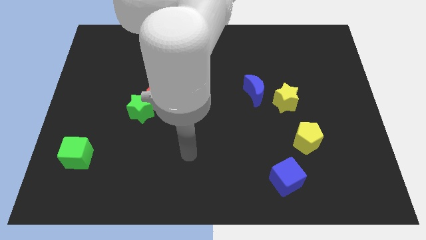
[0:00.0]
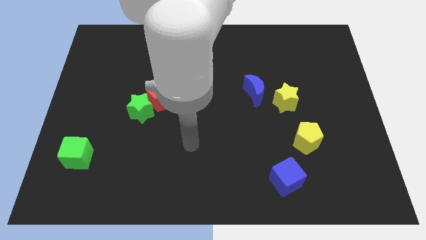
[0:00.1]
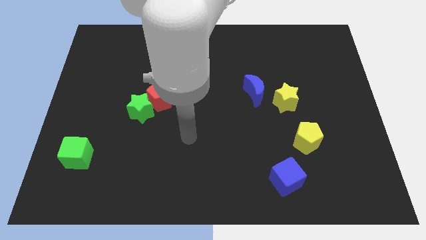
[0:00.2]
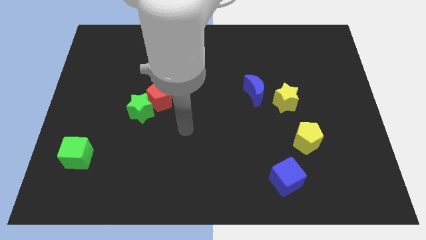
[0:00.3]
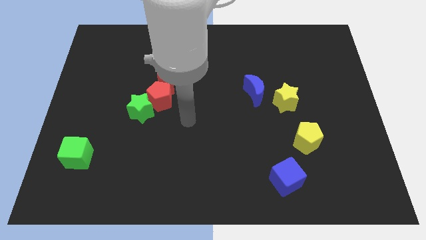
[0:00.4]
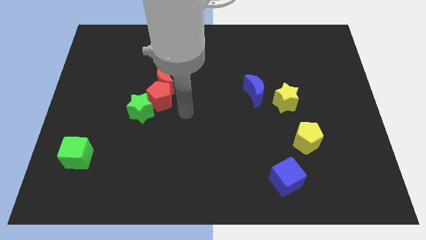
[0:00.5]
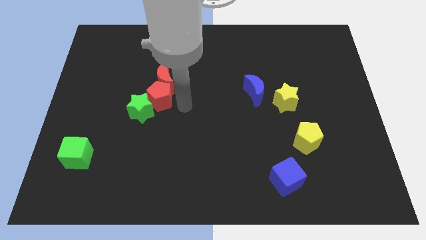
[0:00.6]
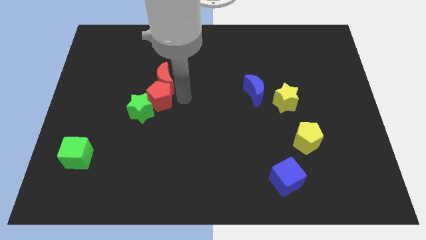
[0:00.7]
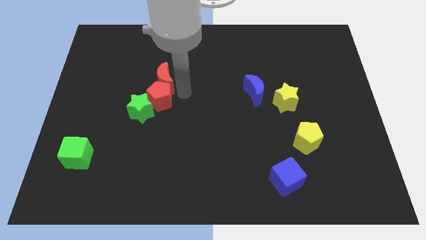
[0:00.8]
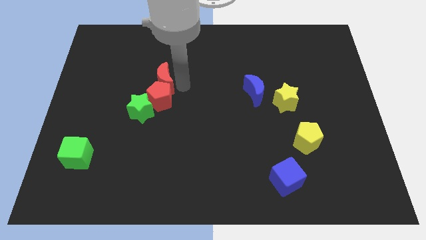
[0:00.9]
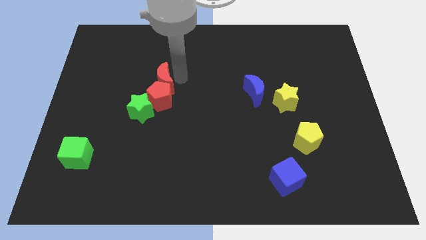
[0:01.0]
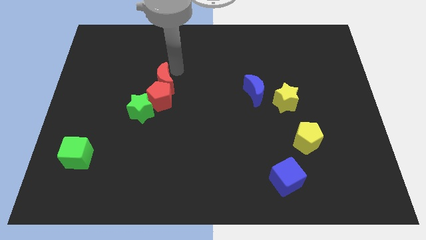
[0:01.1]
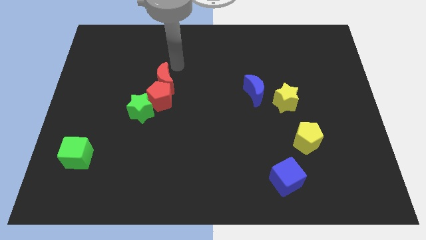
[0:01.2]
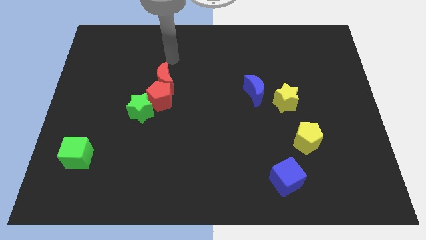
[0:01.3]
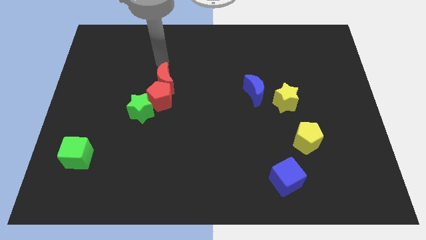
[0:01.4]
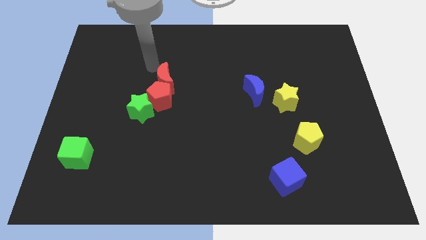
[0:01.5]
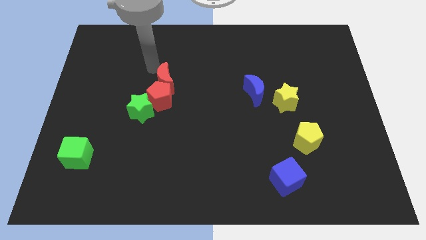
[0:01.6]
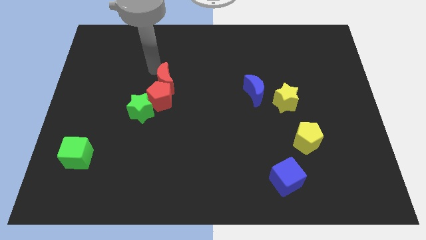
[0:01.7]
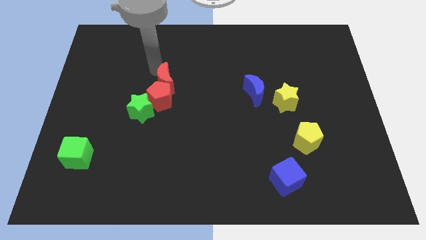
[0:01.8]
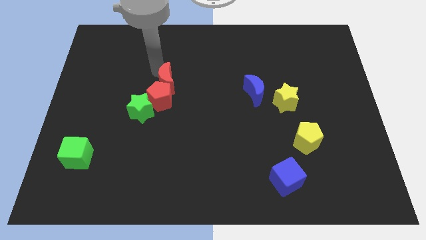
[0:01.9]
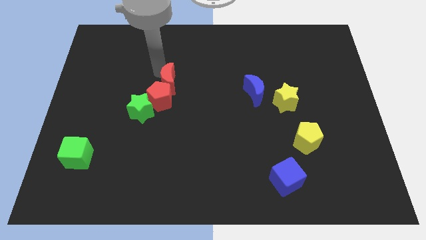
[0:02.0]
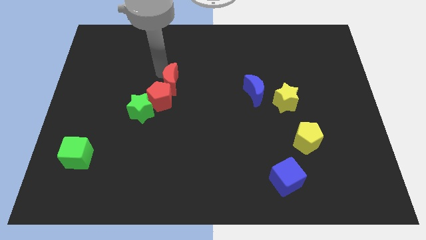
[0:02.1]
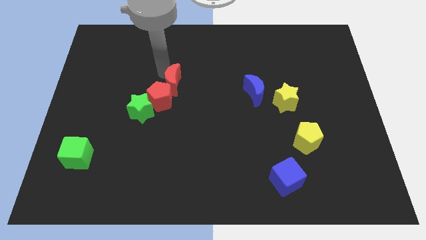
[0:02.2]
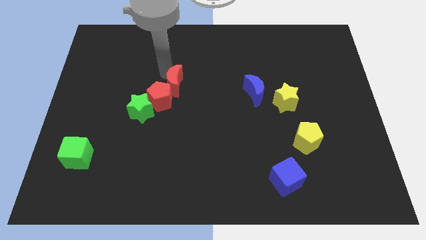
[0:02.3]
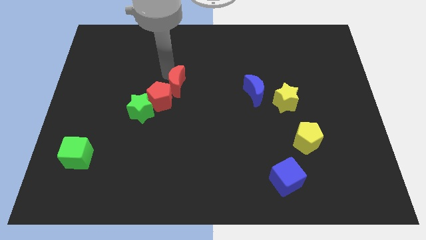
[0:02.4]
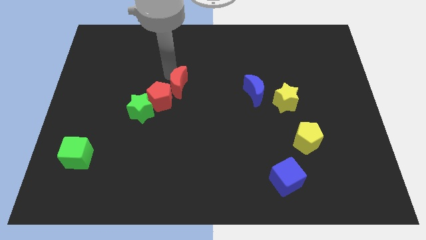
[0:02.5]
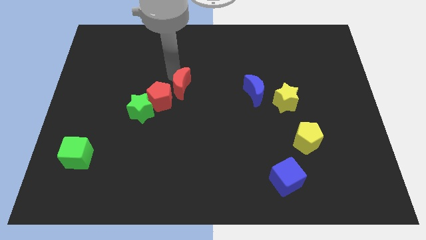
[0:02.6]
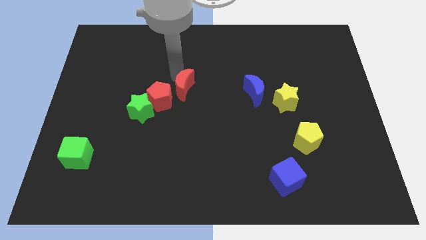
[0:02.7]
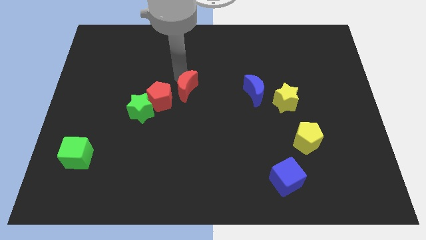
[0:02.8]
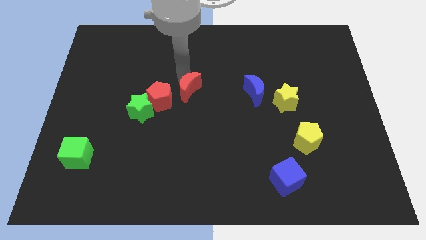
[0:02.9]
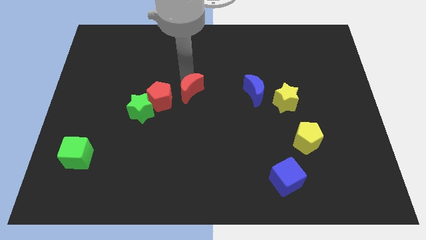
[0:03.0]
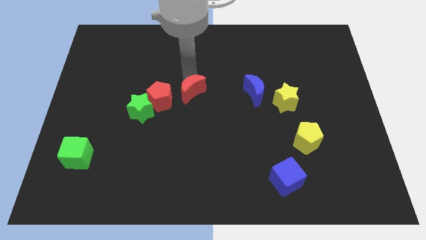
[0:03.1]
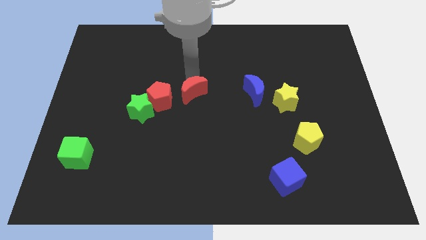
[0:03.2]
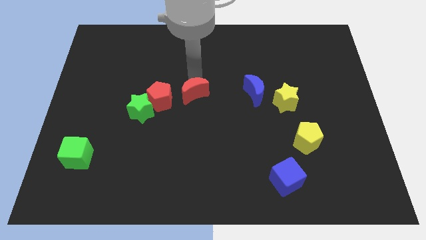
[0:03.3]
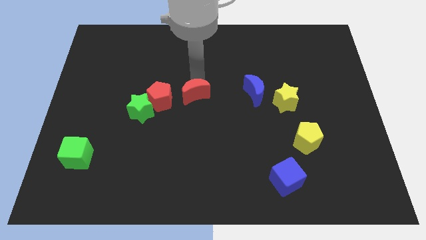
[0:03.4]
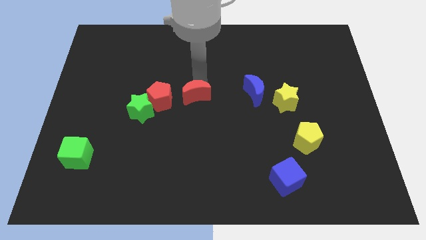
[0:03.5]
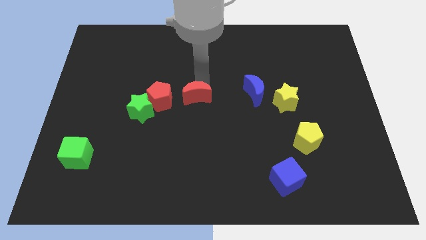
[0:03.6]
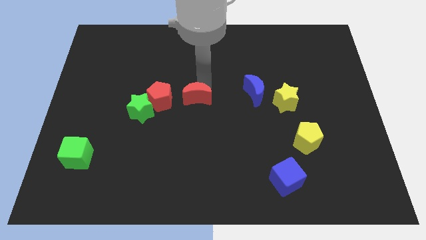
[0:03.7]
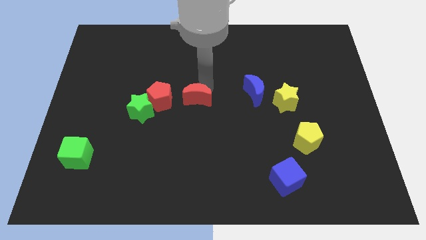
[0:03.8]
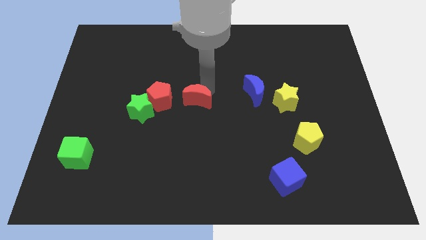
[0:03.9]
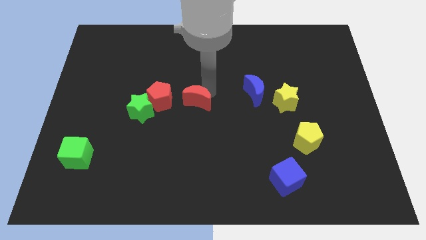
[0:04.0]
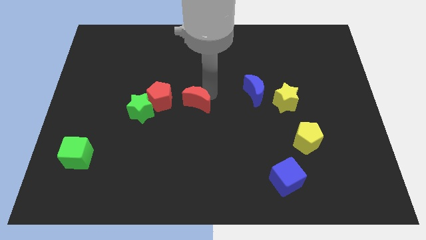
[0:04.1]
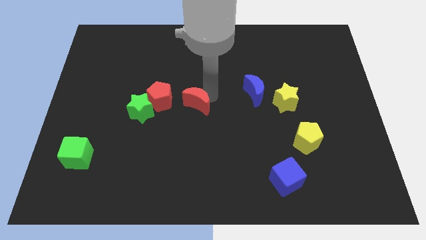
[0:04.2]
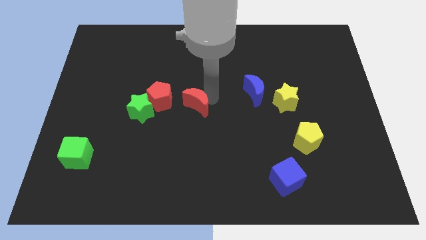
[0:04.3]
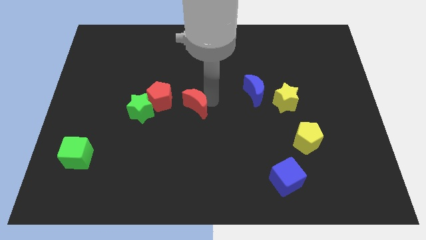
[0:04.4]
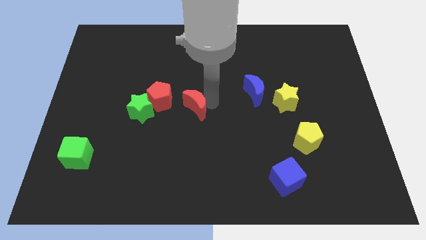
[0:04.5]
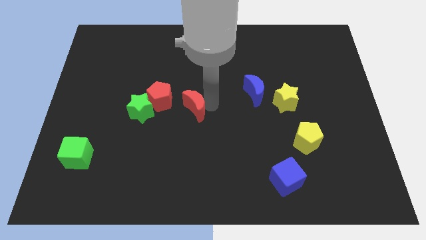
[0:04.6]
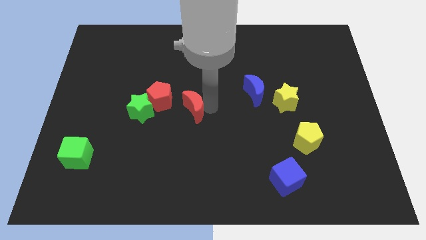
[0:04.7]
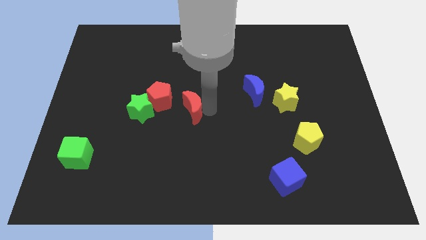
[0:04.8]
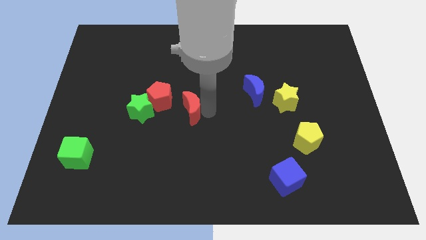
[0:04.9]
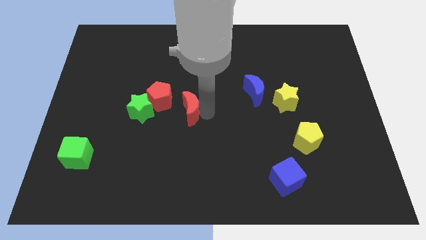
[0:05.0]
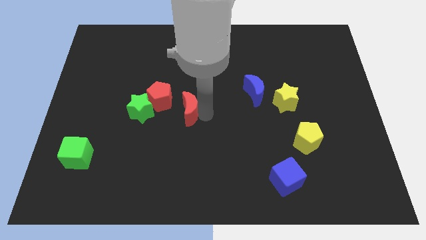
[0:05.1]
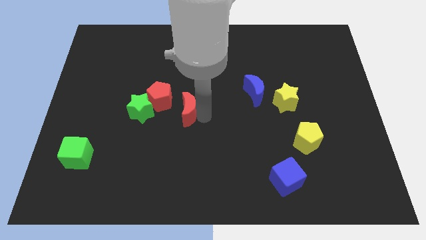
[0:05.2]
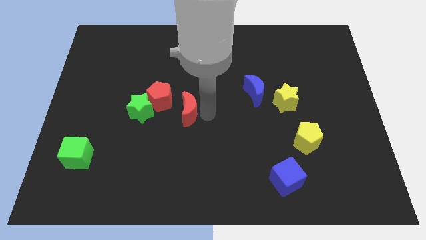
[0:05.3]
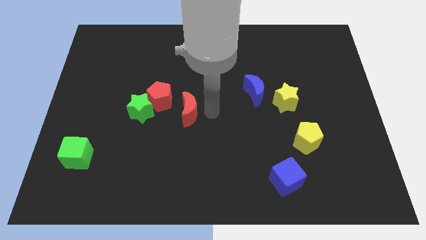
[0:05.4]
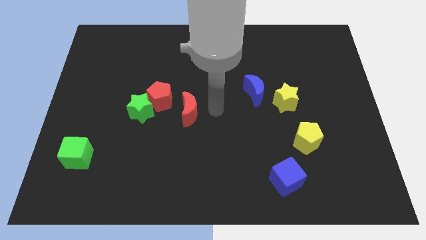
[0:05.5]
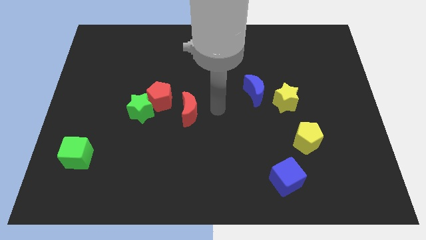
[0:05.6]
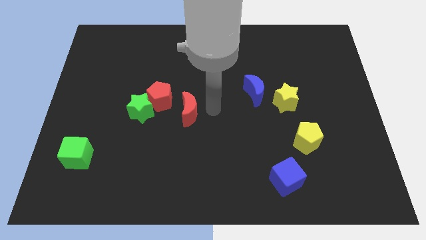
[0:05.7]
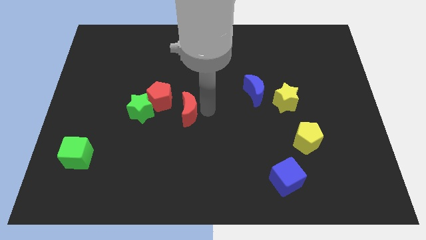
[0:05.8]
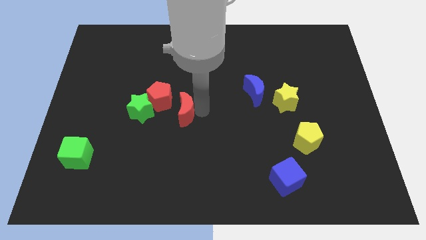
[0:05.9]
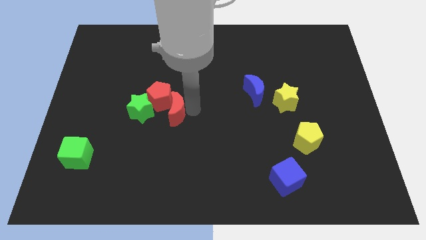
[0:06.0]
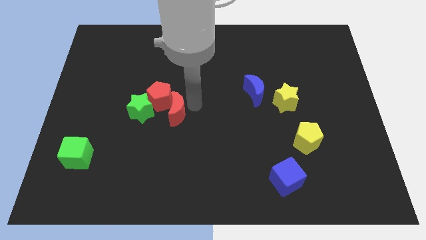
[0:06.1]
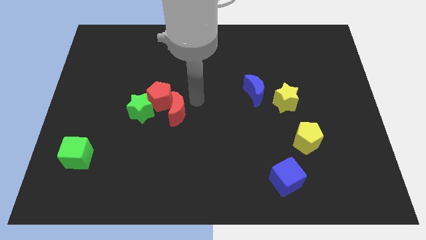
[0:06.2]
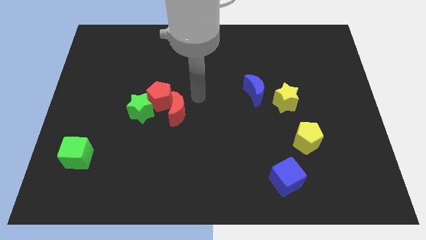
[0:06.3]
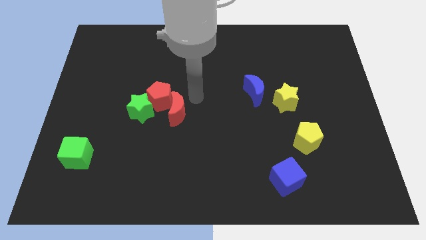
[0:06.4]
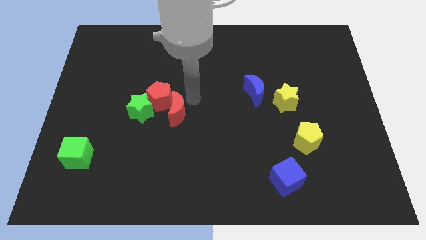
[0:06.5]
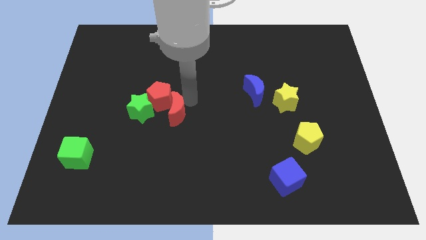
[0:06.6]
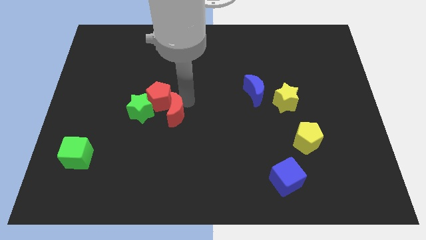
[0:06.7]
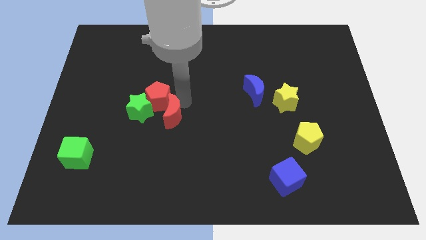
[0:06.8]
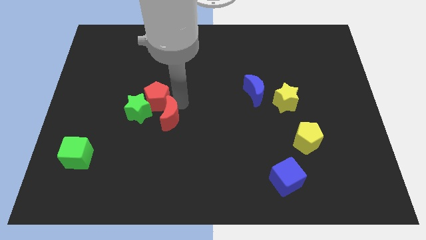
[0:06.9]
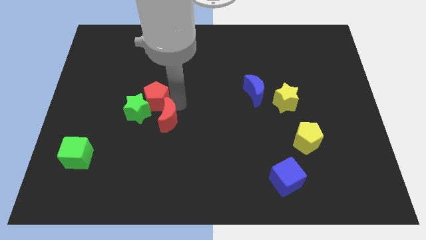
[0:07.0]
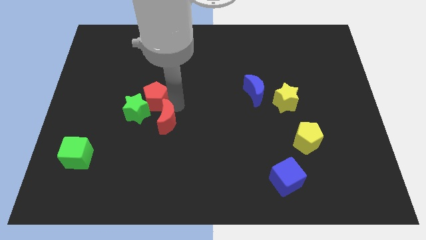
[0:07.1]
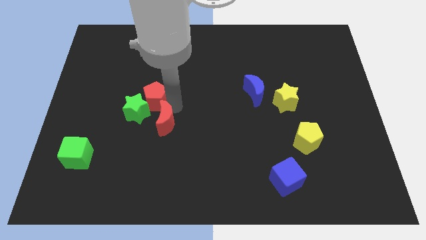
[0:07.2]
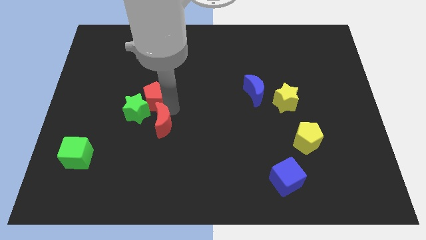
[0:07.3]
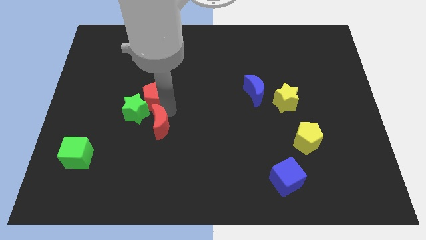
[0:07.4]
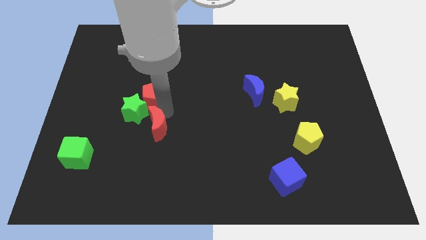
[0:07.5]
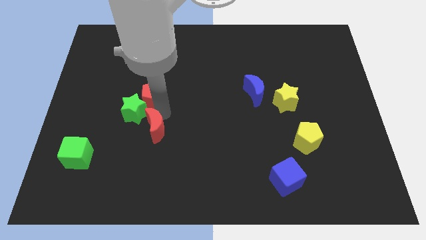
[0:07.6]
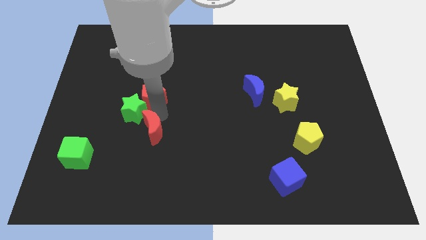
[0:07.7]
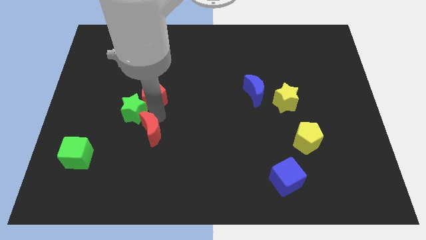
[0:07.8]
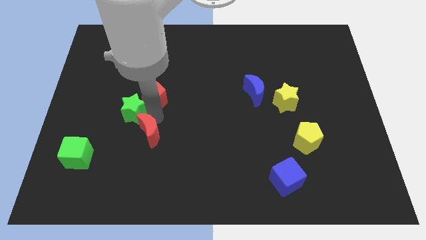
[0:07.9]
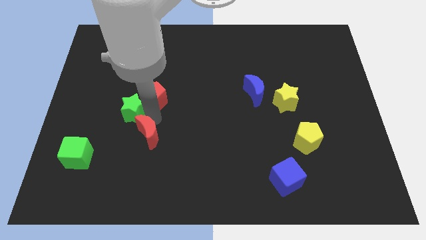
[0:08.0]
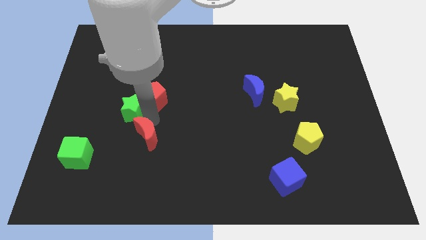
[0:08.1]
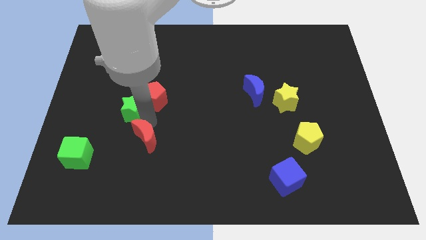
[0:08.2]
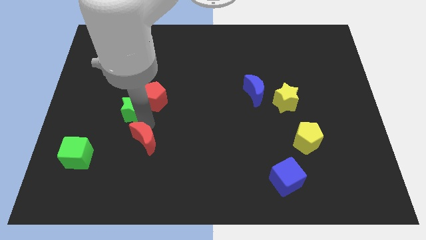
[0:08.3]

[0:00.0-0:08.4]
push the red moon just right of the green cube
